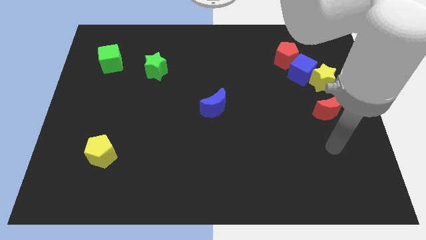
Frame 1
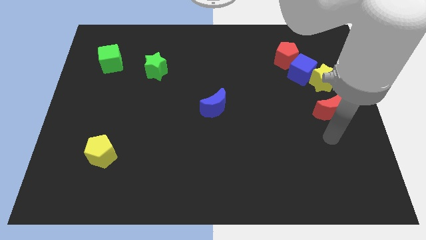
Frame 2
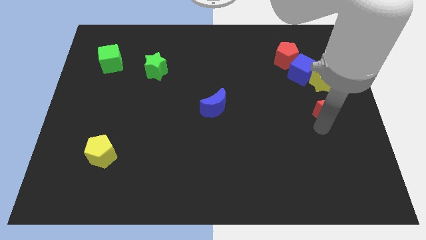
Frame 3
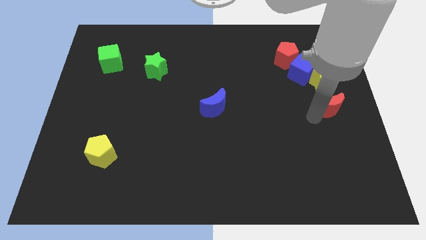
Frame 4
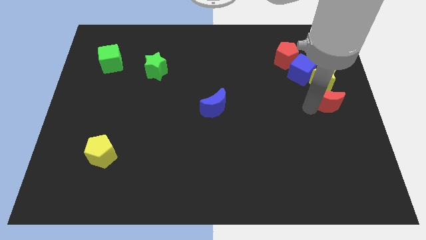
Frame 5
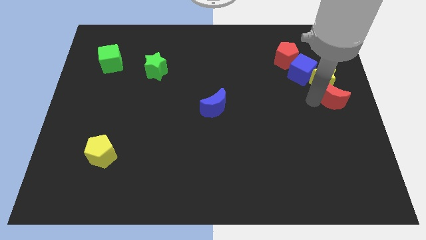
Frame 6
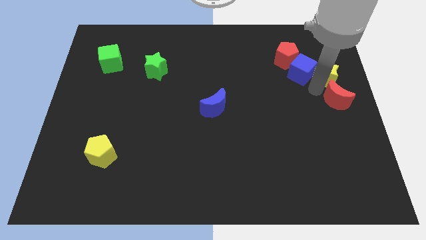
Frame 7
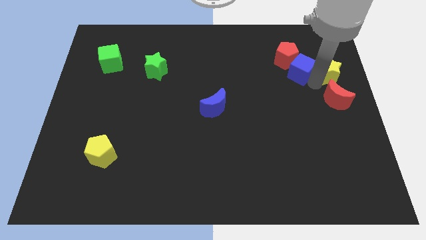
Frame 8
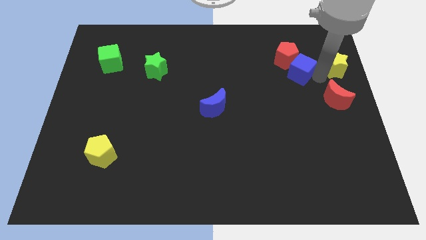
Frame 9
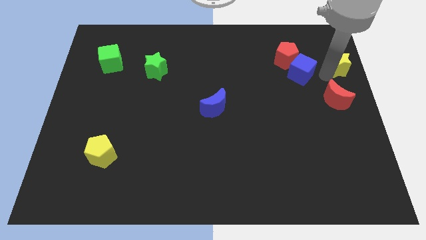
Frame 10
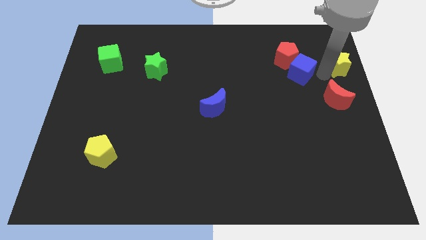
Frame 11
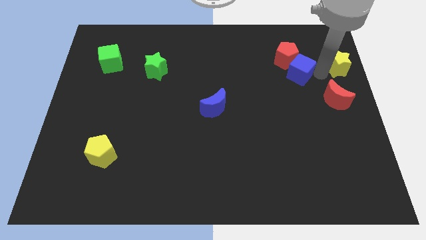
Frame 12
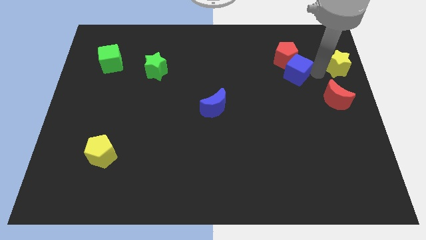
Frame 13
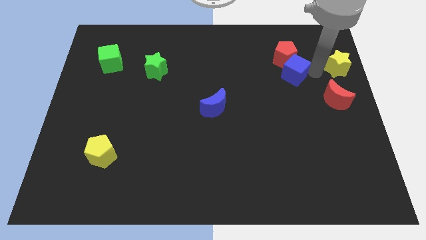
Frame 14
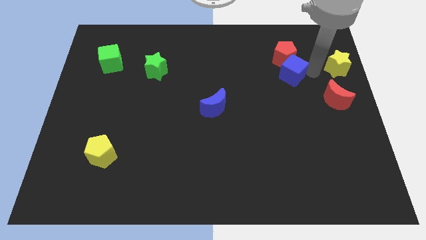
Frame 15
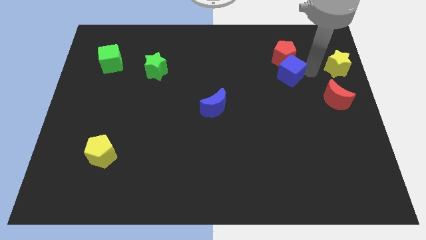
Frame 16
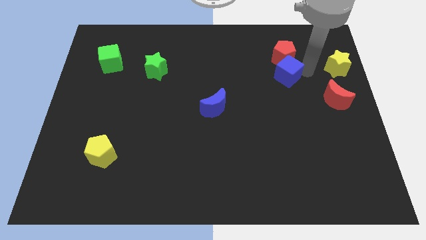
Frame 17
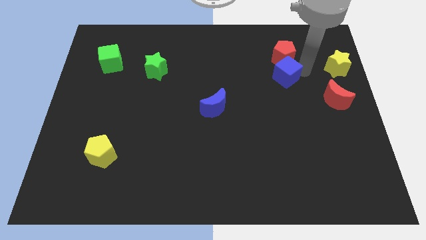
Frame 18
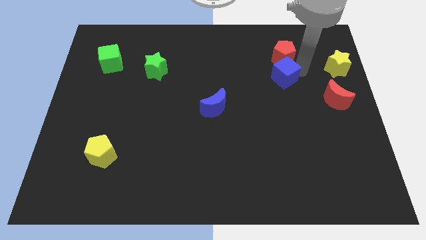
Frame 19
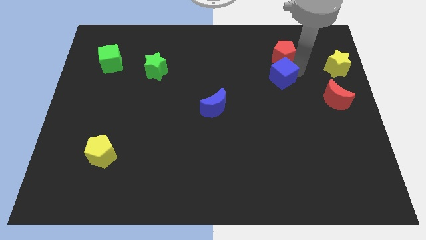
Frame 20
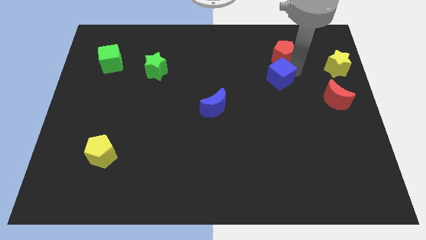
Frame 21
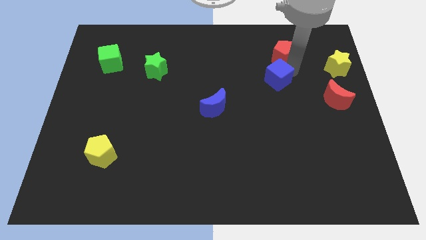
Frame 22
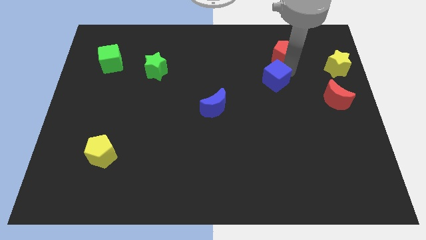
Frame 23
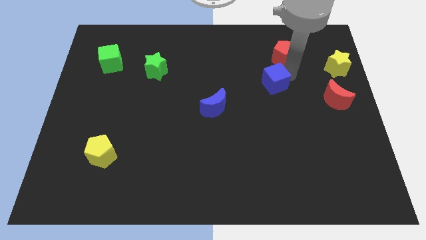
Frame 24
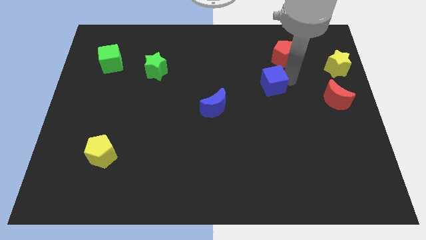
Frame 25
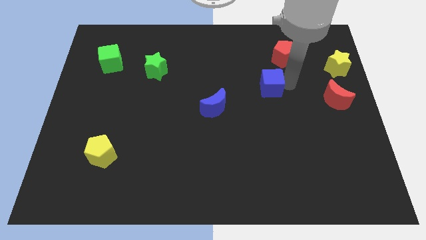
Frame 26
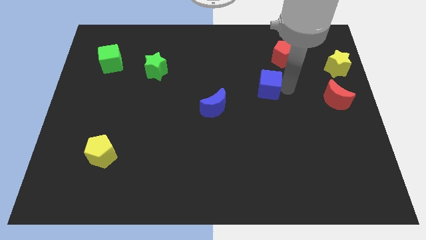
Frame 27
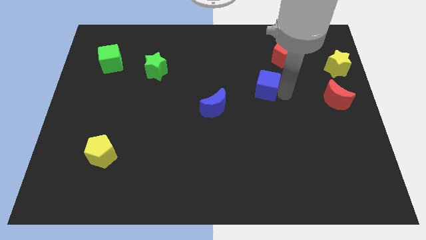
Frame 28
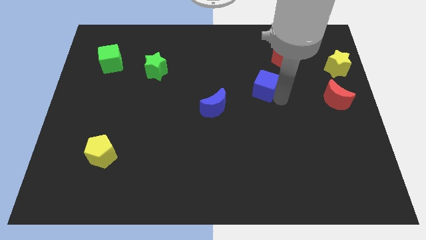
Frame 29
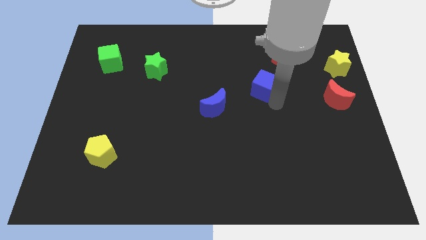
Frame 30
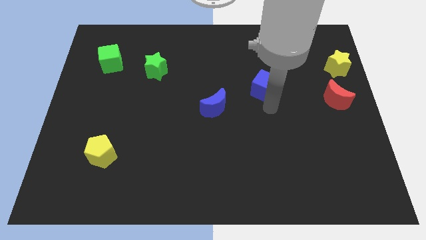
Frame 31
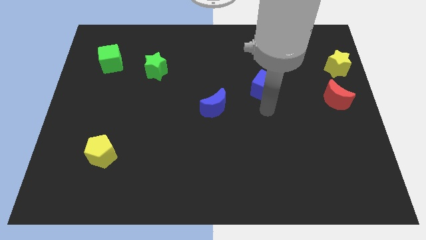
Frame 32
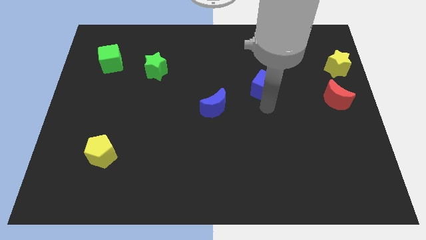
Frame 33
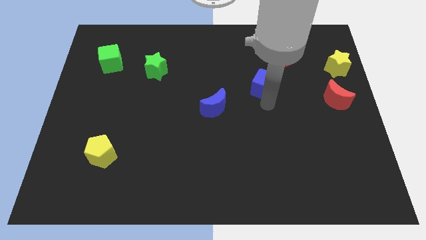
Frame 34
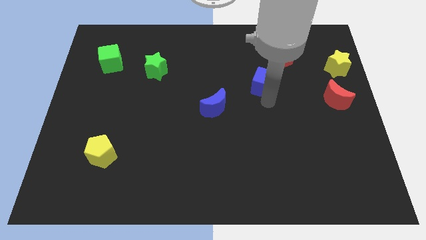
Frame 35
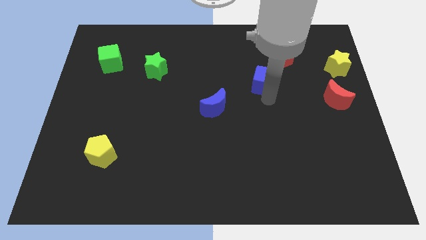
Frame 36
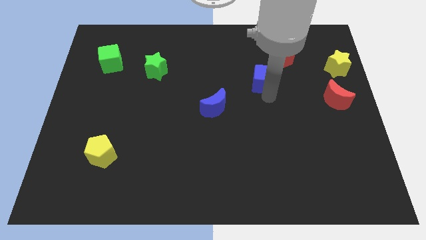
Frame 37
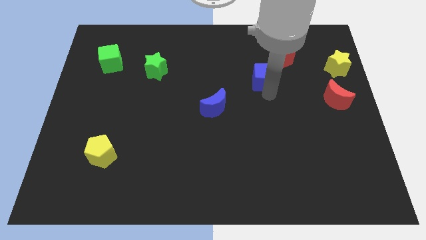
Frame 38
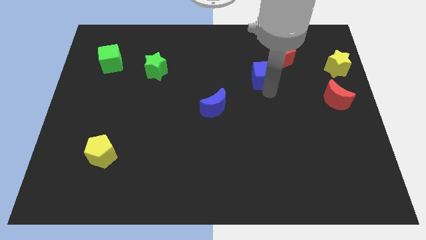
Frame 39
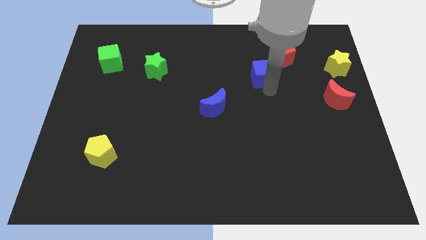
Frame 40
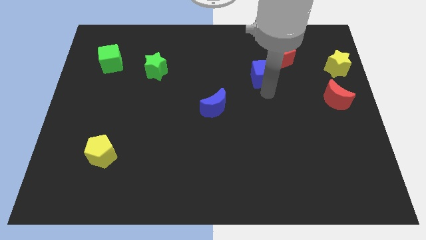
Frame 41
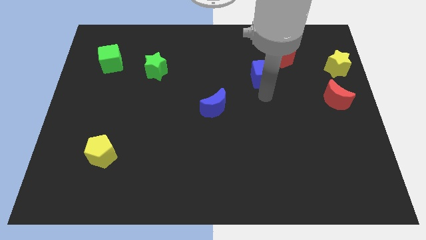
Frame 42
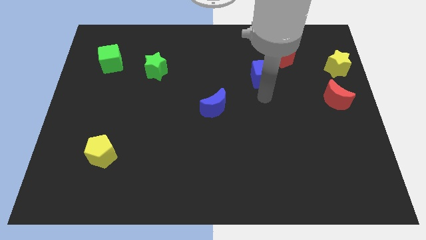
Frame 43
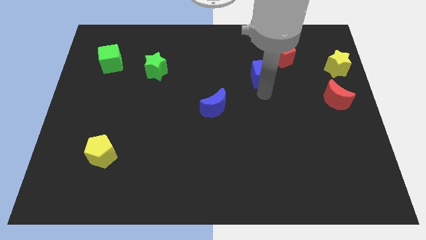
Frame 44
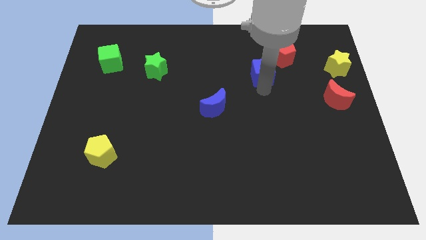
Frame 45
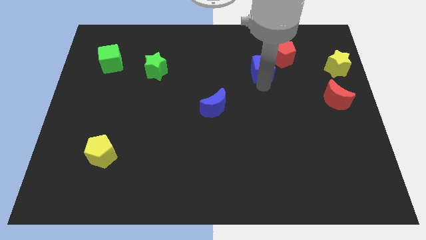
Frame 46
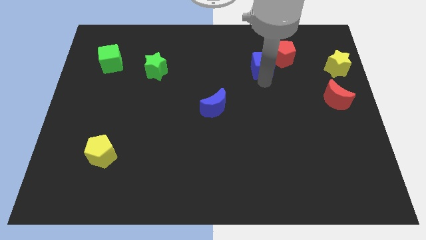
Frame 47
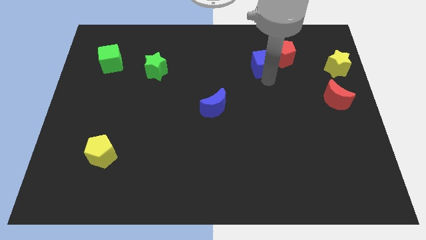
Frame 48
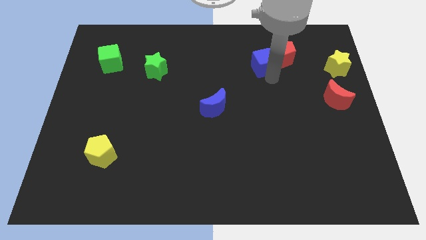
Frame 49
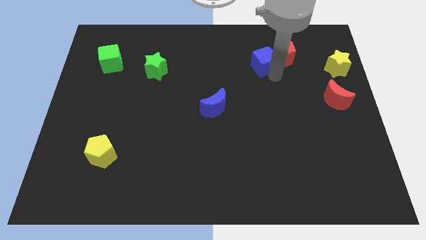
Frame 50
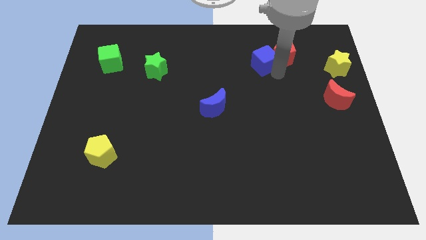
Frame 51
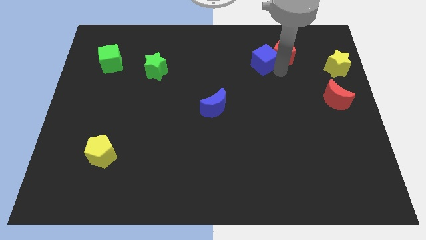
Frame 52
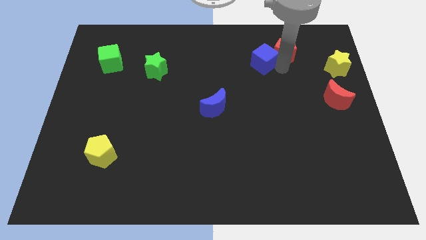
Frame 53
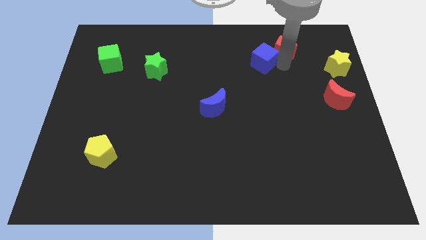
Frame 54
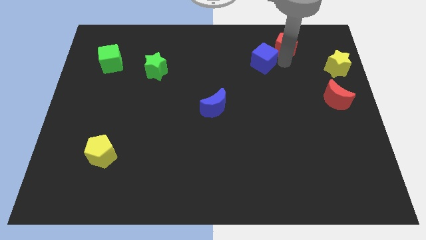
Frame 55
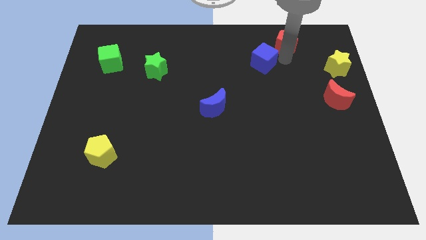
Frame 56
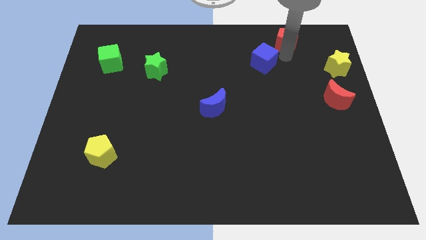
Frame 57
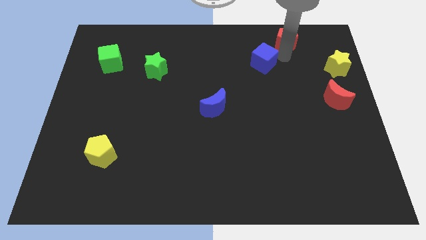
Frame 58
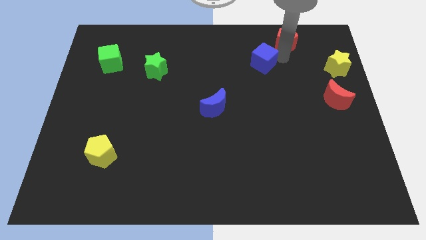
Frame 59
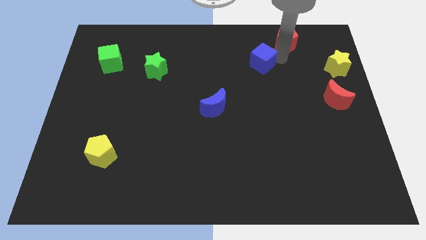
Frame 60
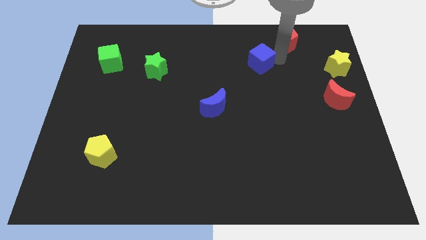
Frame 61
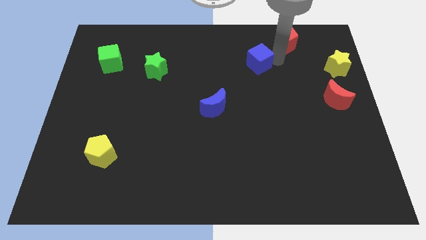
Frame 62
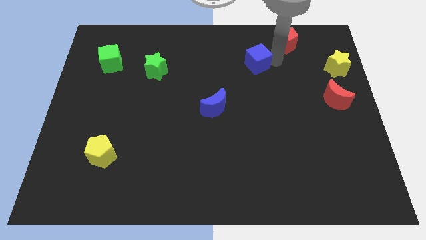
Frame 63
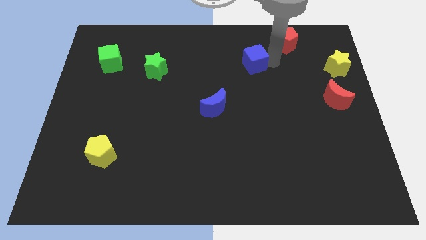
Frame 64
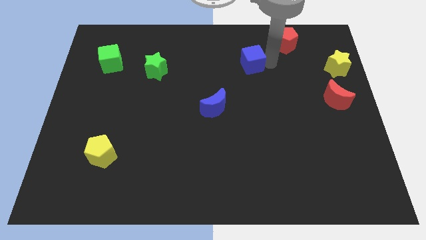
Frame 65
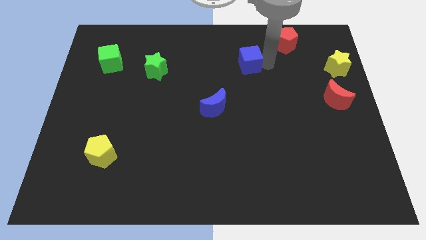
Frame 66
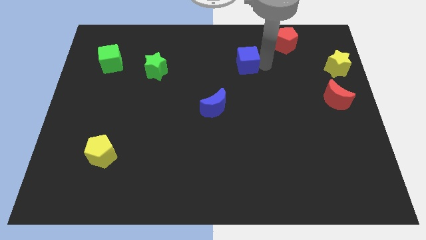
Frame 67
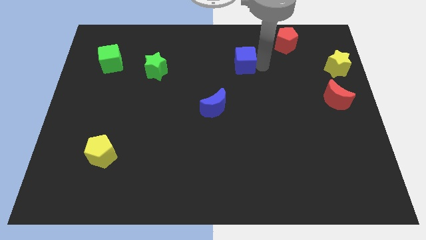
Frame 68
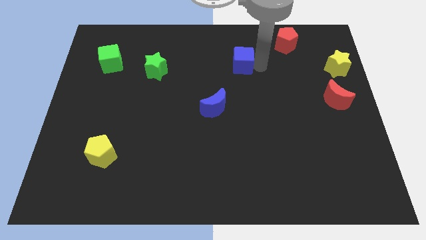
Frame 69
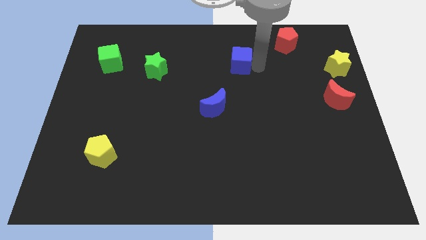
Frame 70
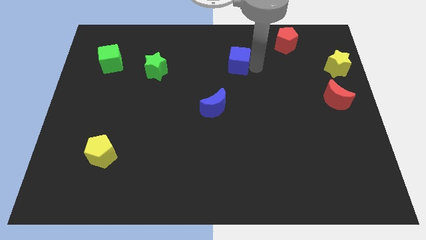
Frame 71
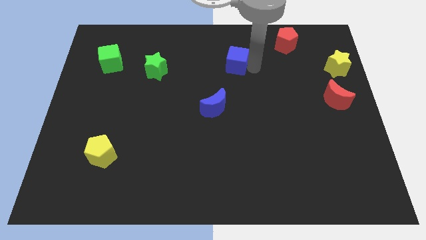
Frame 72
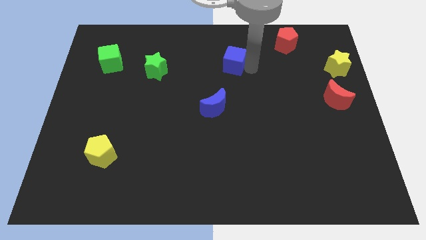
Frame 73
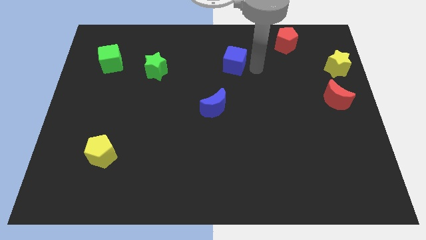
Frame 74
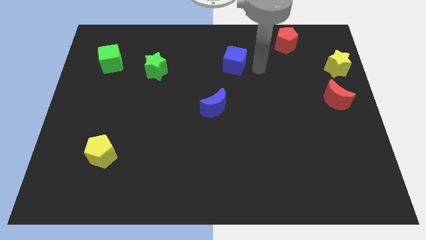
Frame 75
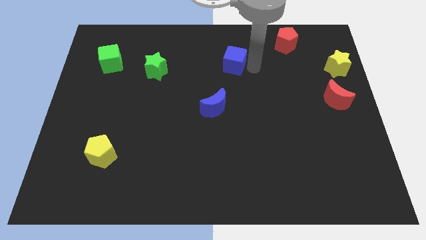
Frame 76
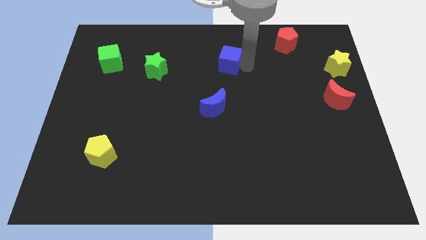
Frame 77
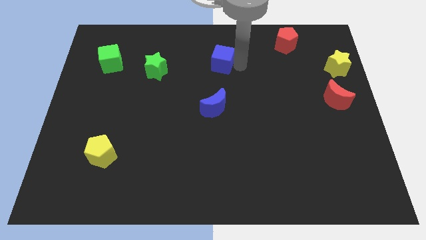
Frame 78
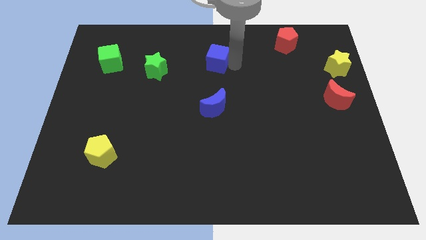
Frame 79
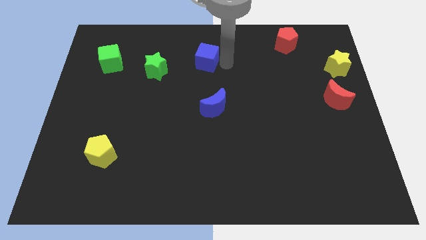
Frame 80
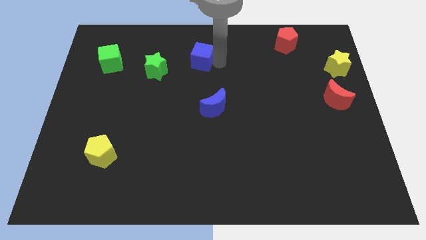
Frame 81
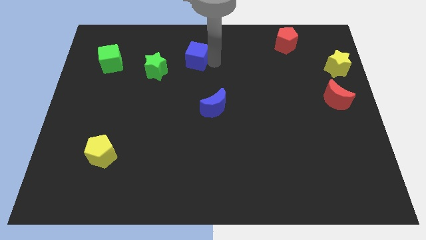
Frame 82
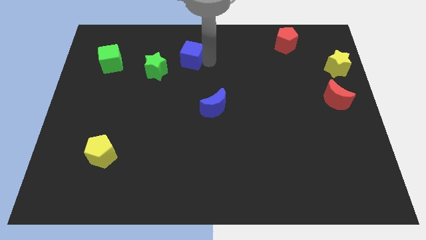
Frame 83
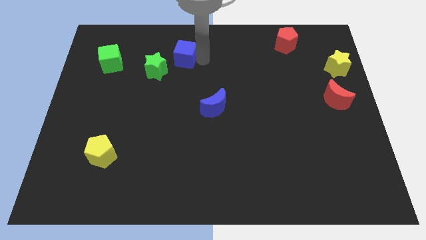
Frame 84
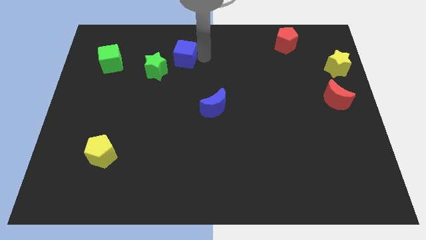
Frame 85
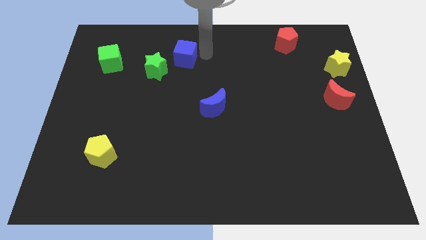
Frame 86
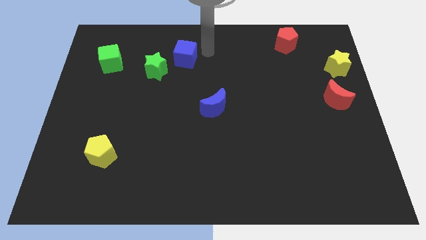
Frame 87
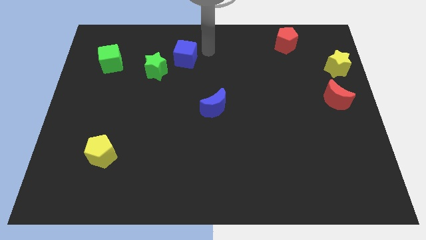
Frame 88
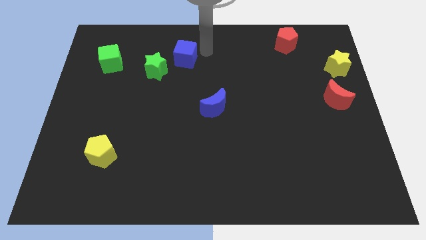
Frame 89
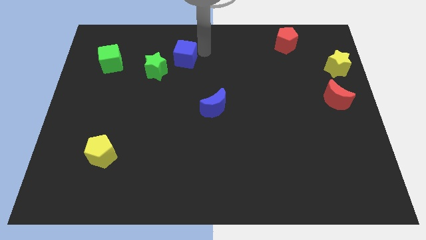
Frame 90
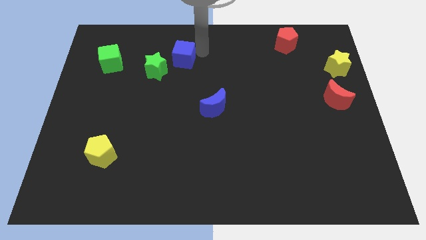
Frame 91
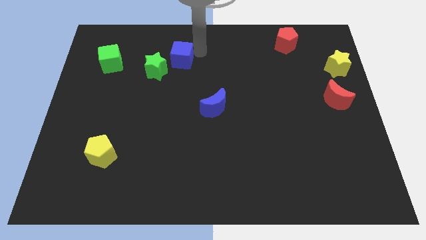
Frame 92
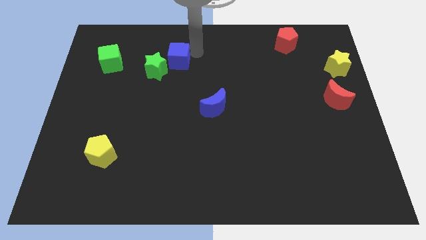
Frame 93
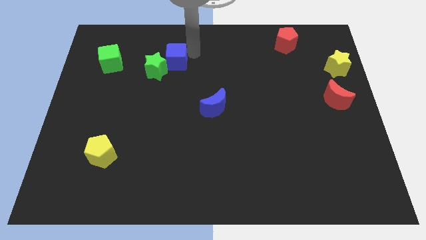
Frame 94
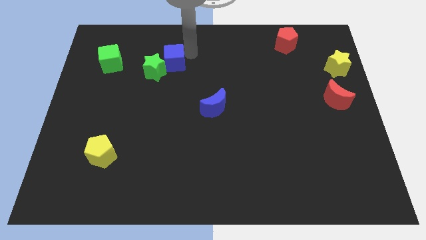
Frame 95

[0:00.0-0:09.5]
slide the blue cube right of the green cube
